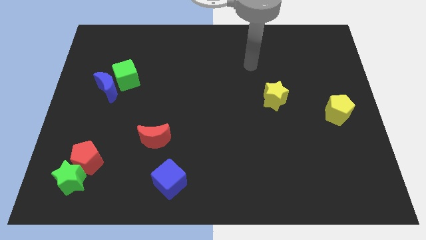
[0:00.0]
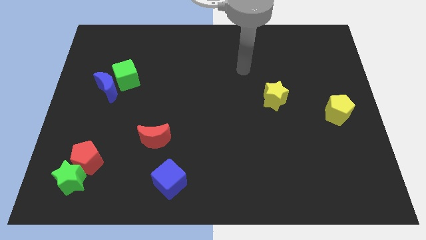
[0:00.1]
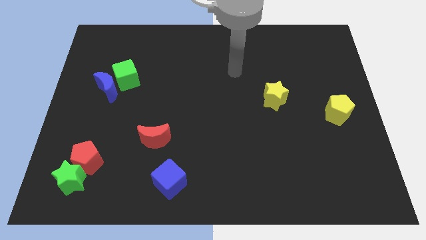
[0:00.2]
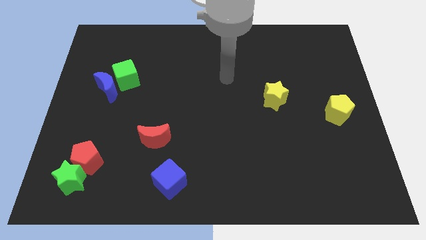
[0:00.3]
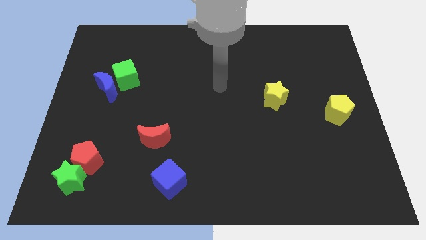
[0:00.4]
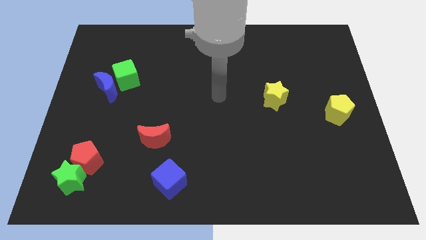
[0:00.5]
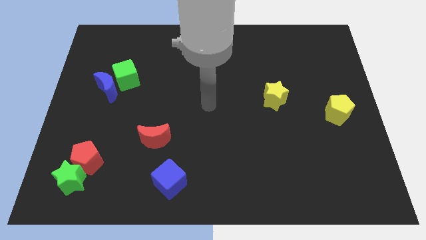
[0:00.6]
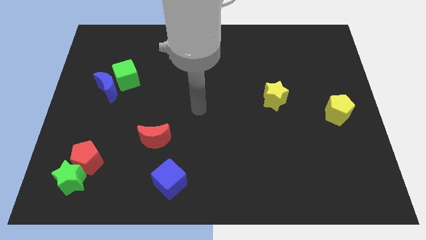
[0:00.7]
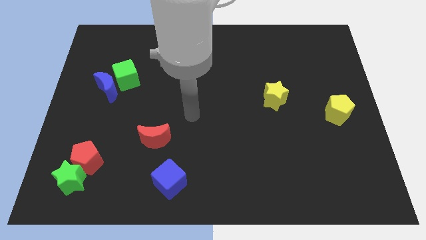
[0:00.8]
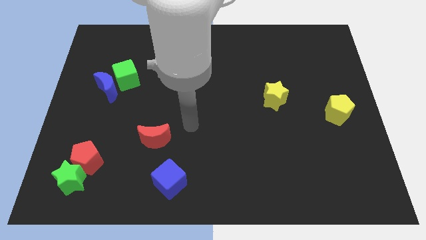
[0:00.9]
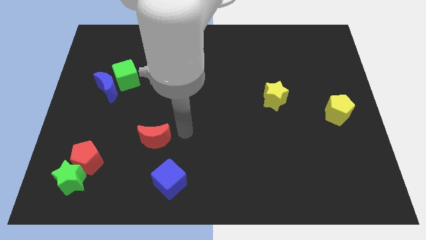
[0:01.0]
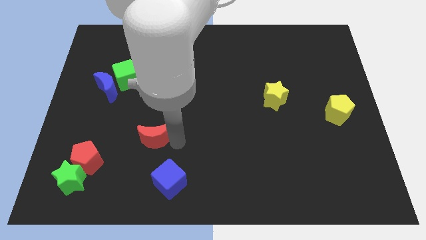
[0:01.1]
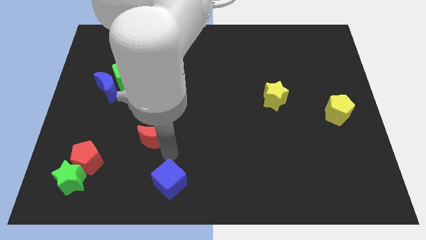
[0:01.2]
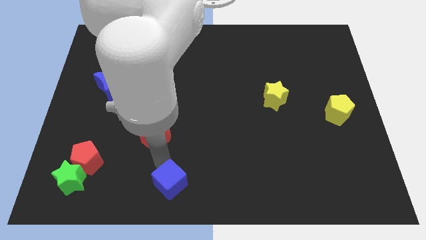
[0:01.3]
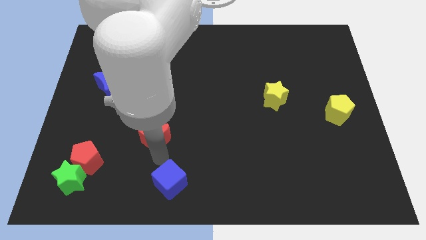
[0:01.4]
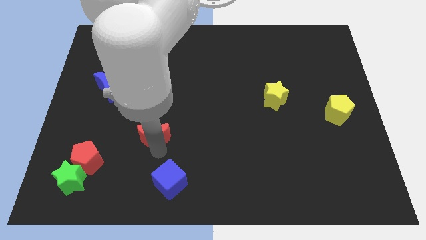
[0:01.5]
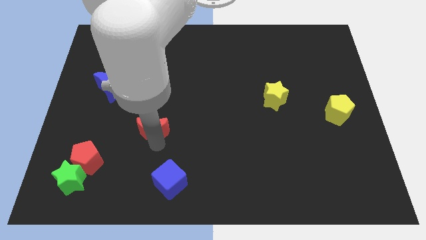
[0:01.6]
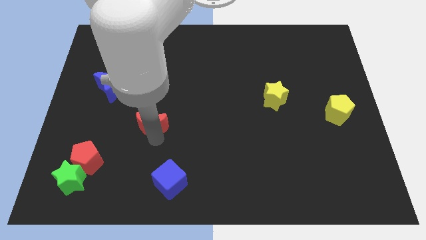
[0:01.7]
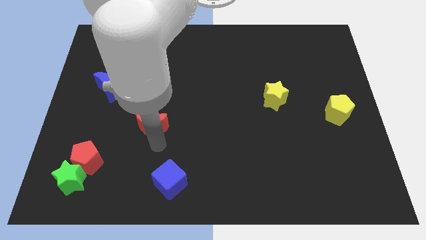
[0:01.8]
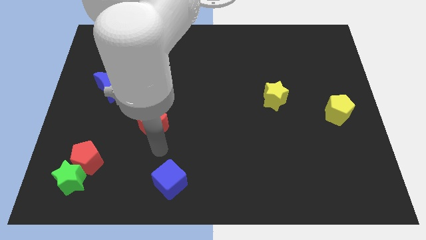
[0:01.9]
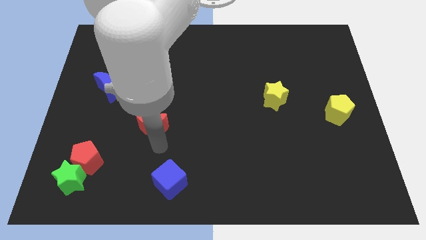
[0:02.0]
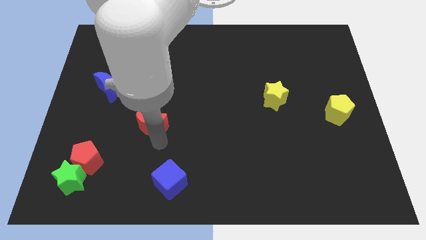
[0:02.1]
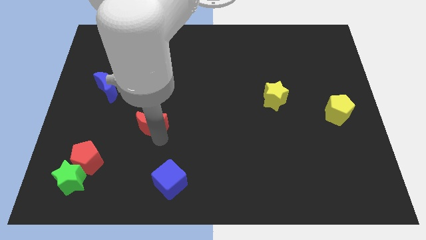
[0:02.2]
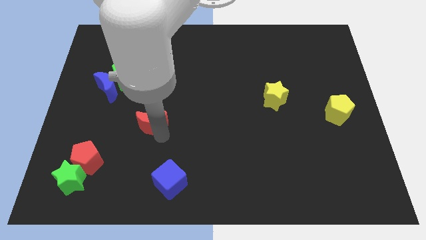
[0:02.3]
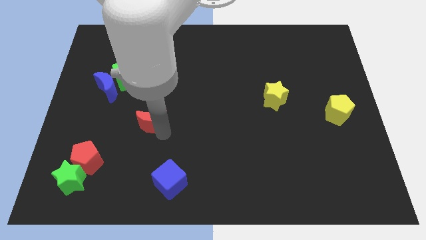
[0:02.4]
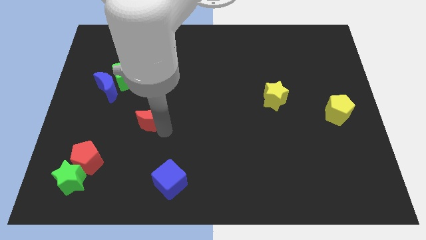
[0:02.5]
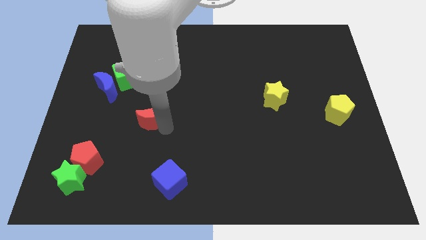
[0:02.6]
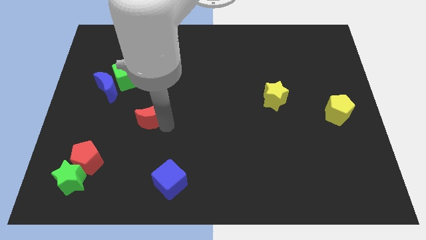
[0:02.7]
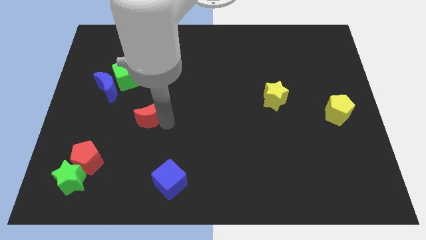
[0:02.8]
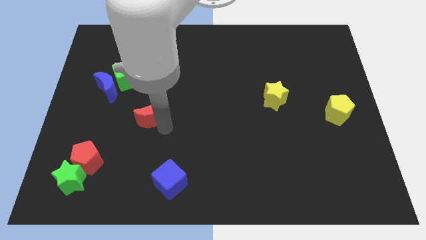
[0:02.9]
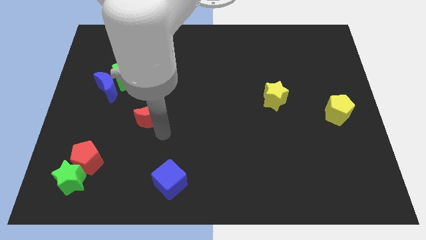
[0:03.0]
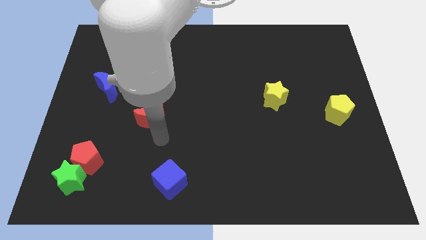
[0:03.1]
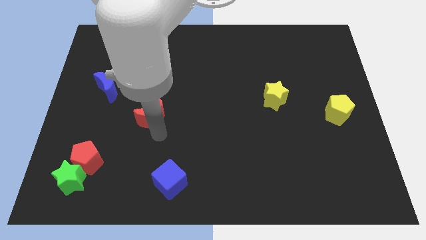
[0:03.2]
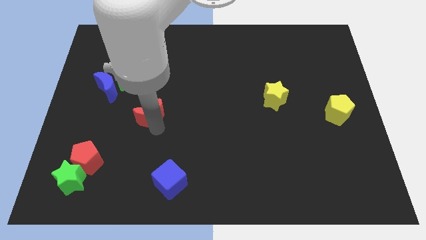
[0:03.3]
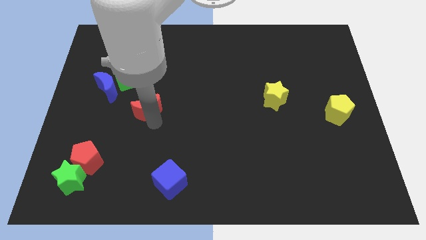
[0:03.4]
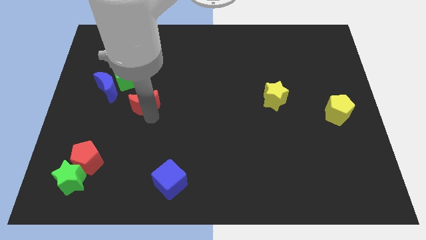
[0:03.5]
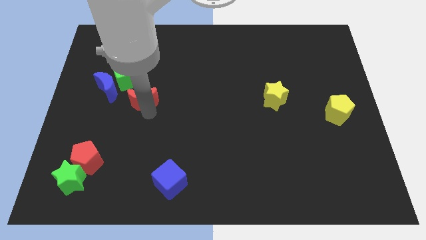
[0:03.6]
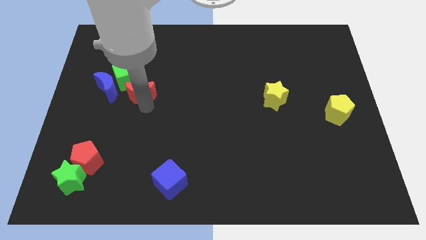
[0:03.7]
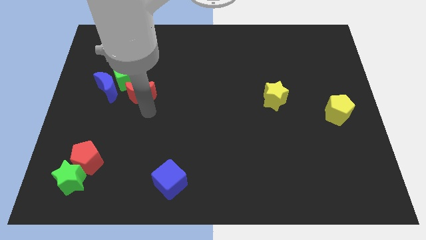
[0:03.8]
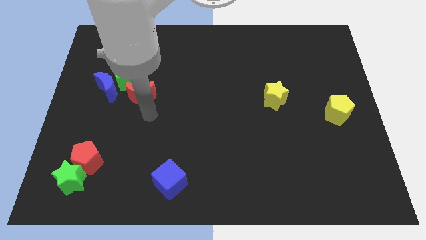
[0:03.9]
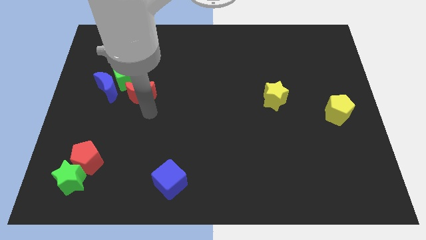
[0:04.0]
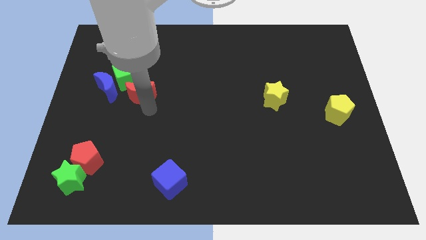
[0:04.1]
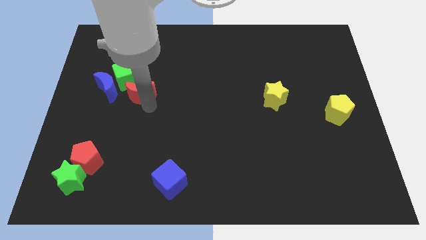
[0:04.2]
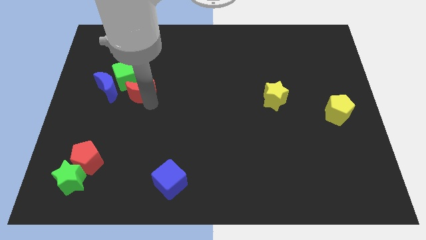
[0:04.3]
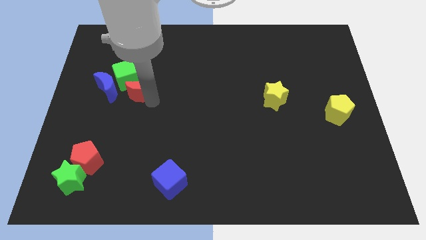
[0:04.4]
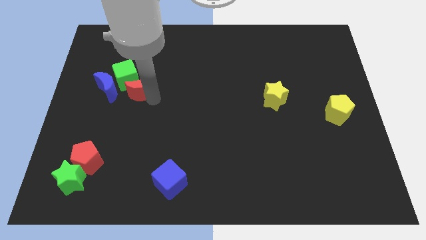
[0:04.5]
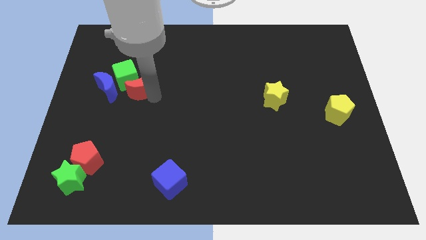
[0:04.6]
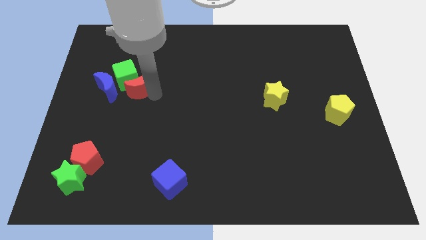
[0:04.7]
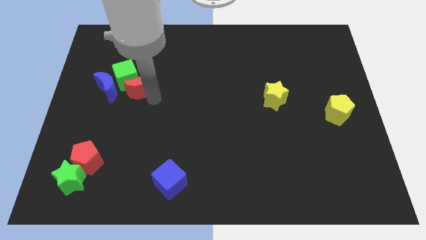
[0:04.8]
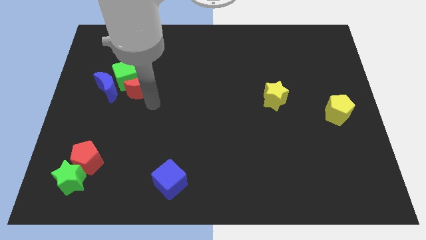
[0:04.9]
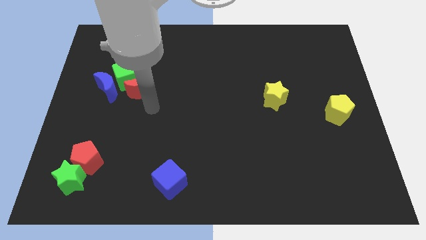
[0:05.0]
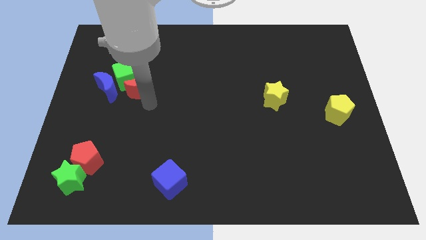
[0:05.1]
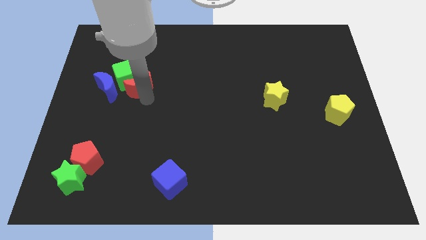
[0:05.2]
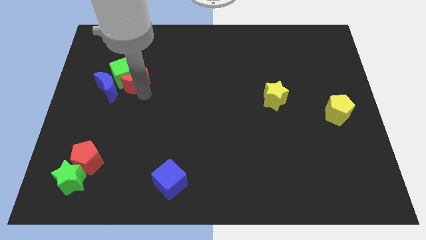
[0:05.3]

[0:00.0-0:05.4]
slide the red moon to the top right of the blue moon

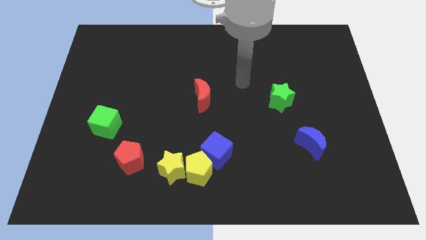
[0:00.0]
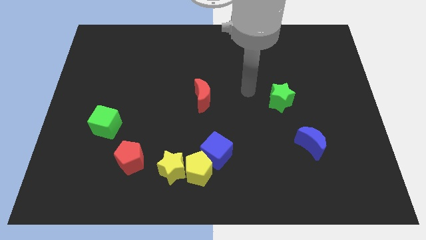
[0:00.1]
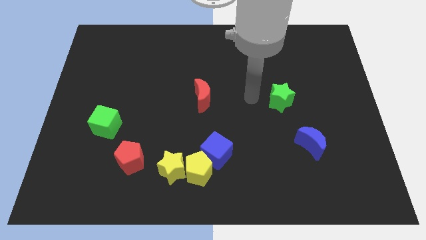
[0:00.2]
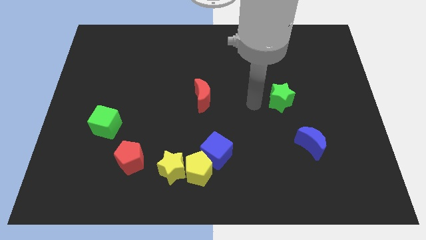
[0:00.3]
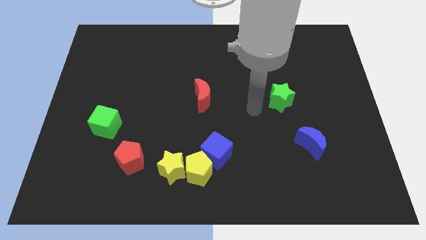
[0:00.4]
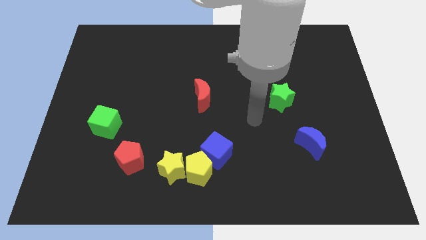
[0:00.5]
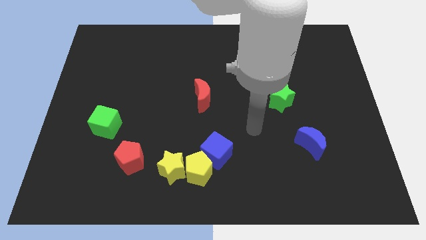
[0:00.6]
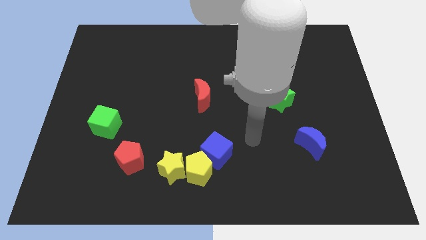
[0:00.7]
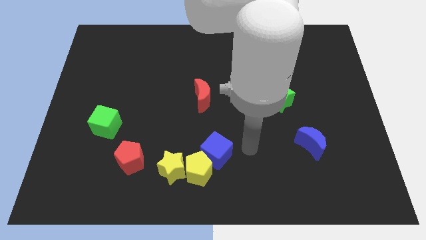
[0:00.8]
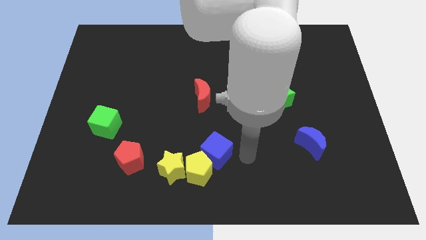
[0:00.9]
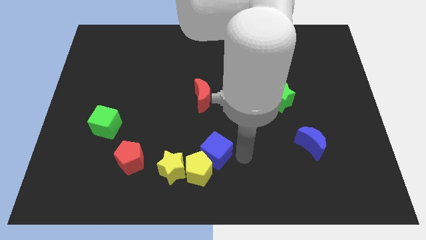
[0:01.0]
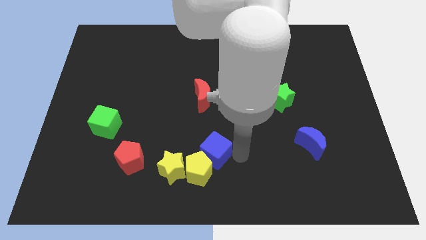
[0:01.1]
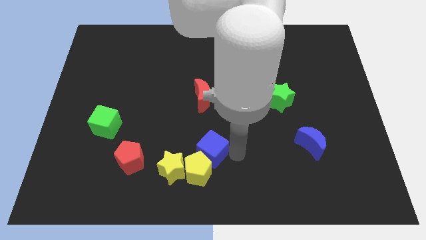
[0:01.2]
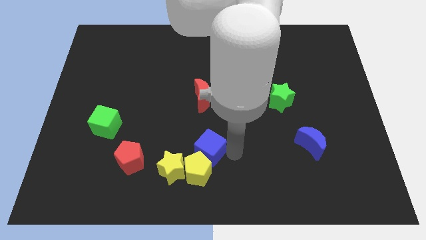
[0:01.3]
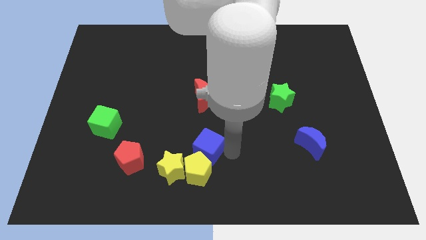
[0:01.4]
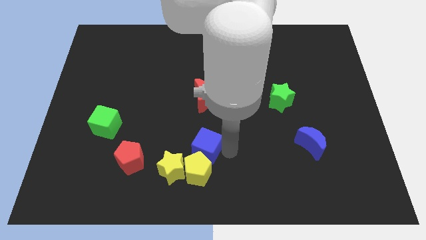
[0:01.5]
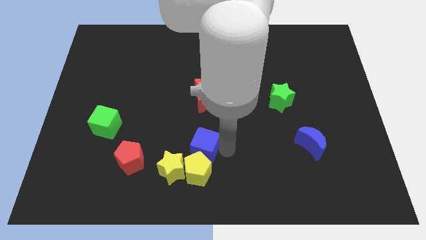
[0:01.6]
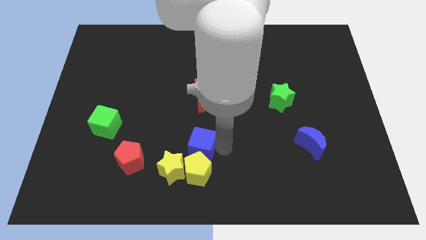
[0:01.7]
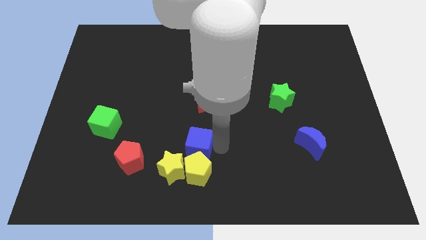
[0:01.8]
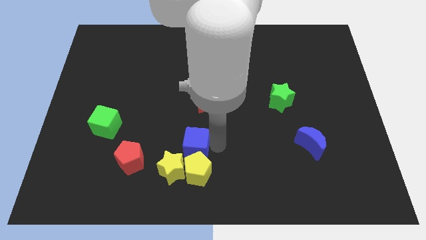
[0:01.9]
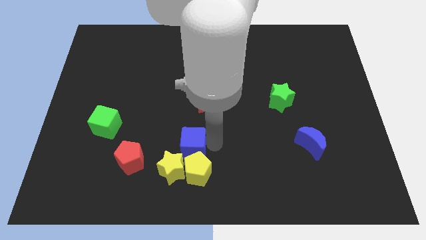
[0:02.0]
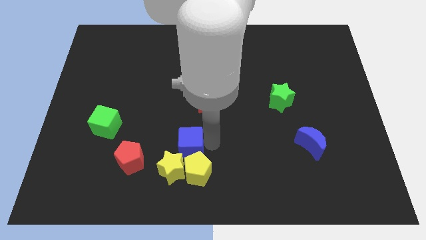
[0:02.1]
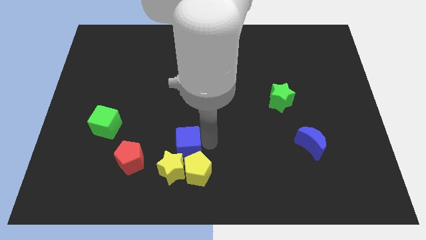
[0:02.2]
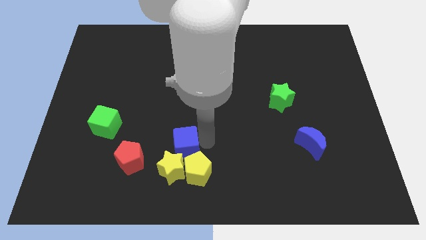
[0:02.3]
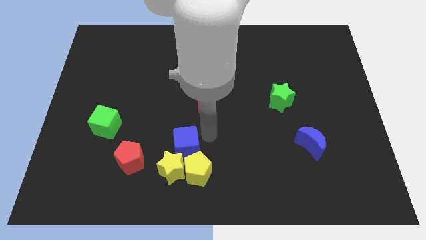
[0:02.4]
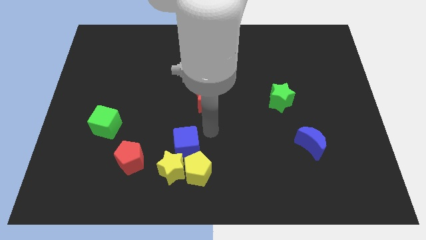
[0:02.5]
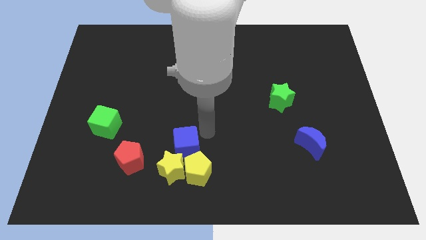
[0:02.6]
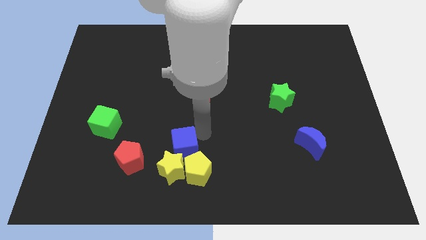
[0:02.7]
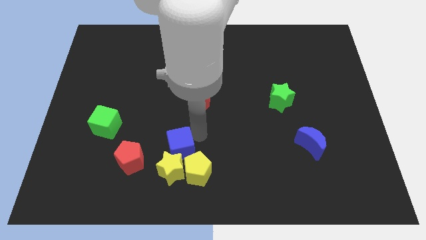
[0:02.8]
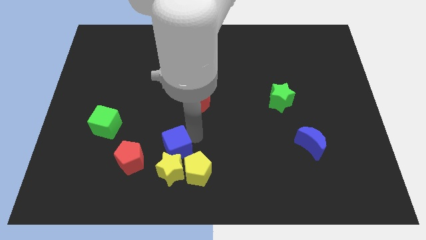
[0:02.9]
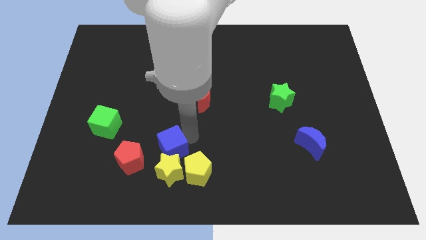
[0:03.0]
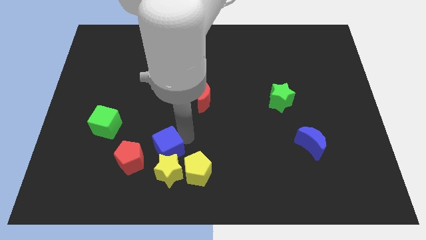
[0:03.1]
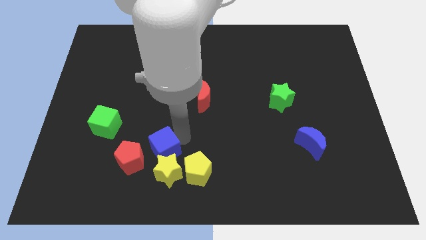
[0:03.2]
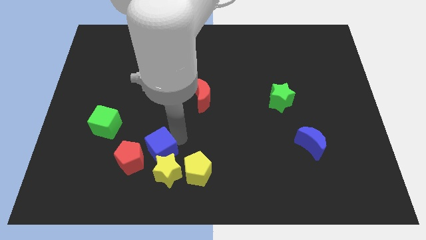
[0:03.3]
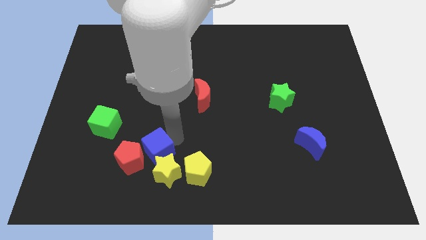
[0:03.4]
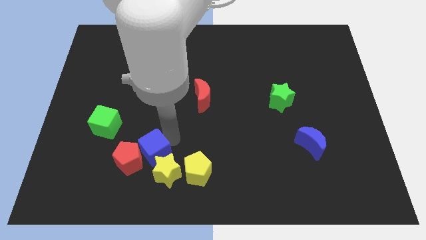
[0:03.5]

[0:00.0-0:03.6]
slide the blue cube to the left side of the yellow pentagon
